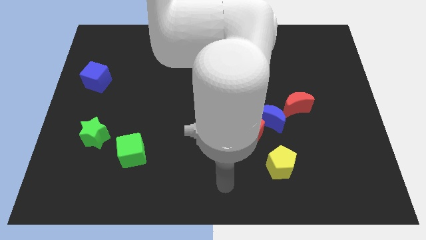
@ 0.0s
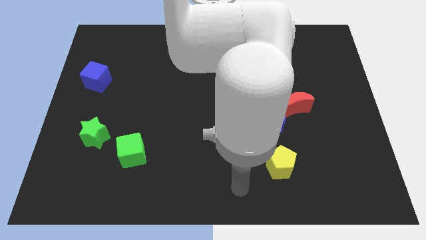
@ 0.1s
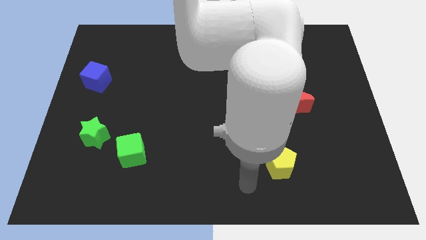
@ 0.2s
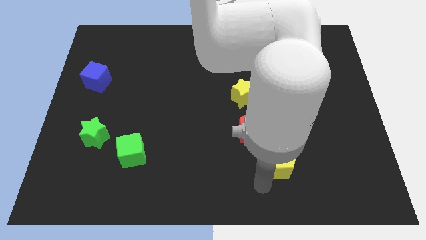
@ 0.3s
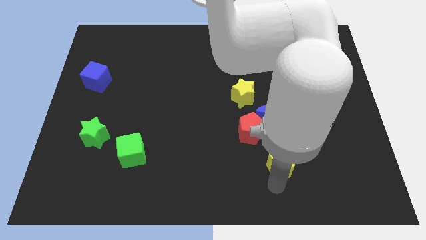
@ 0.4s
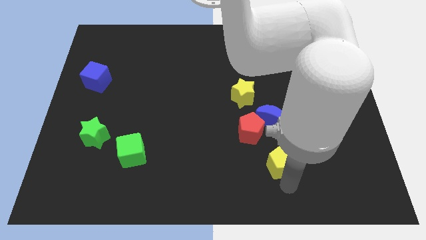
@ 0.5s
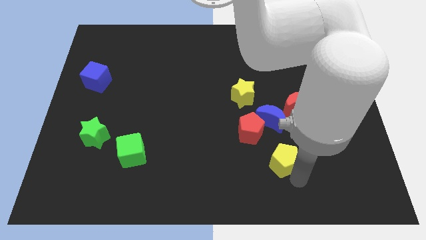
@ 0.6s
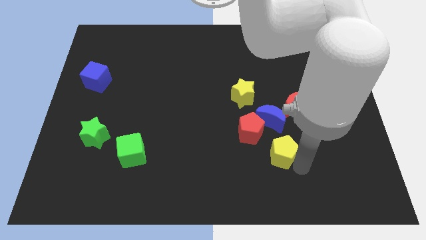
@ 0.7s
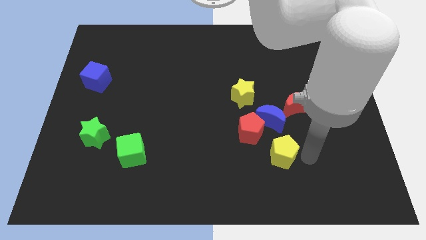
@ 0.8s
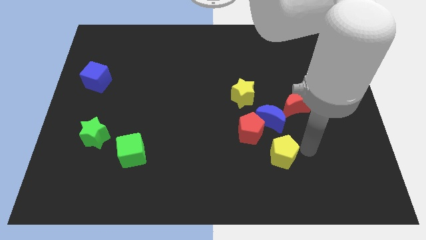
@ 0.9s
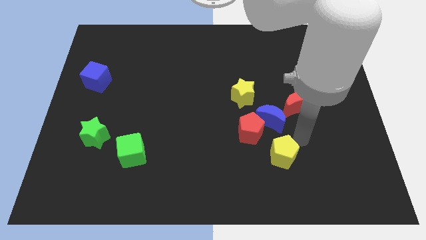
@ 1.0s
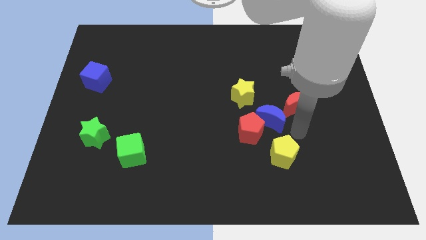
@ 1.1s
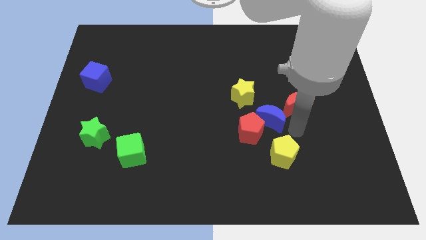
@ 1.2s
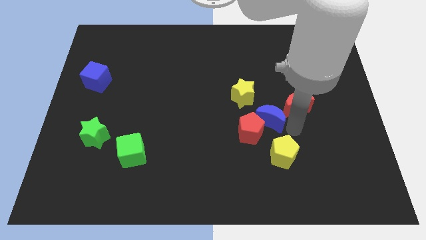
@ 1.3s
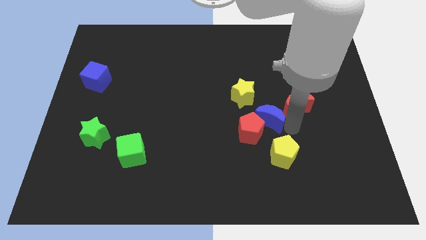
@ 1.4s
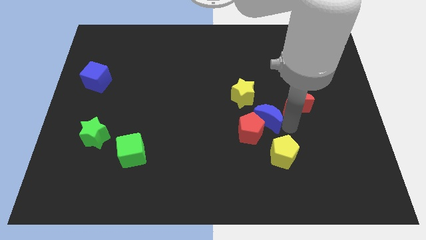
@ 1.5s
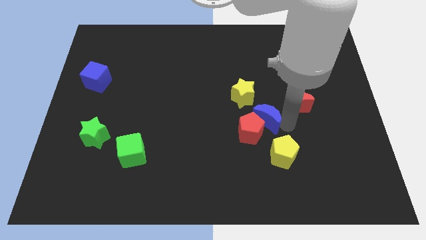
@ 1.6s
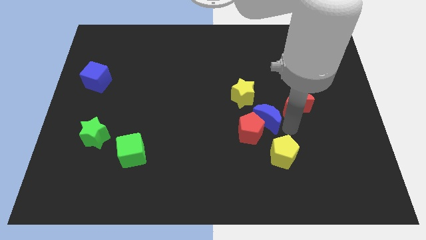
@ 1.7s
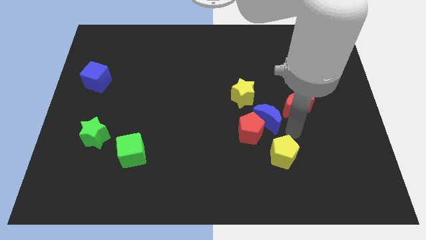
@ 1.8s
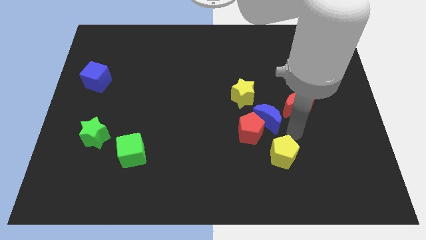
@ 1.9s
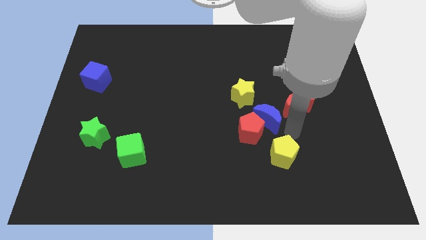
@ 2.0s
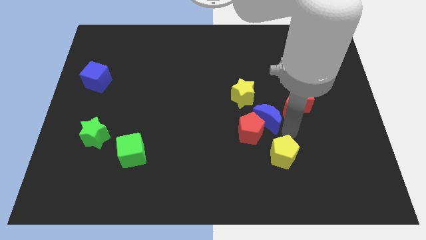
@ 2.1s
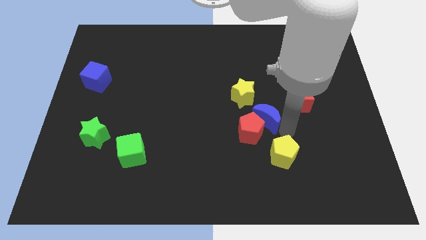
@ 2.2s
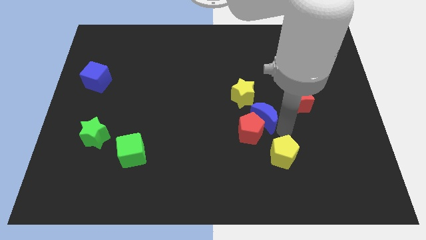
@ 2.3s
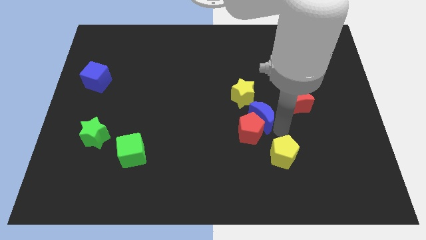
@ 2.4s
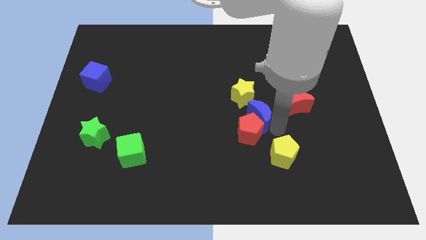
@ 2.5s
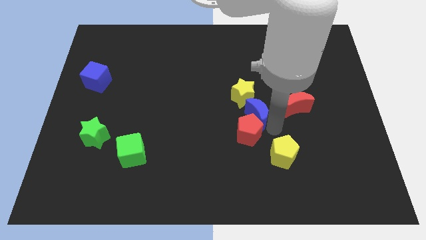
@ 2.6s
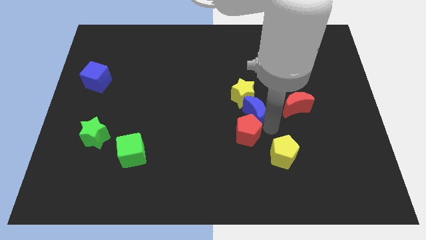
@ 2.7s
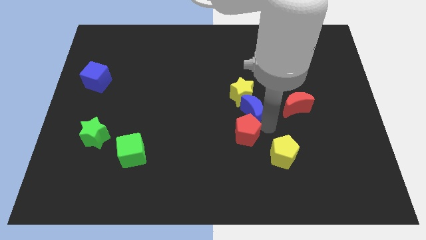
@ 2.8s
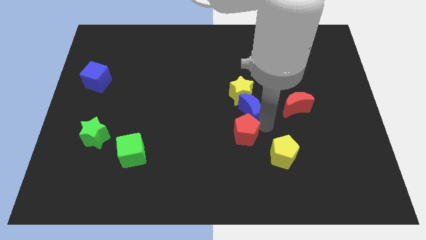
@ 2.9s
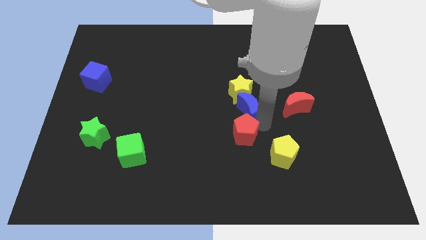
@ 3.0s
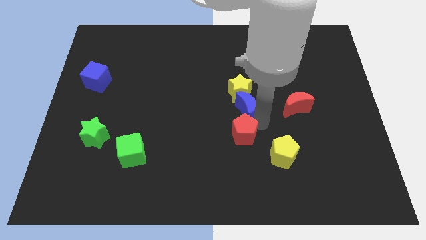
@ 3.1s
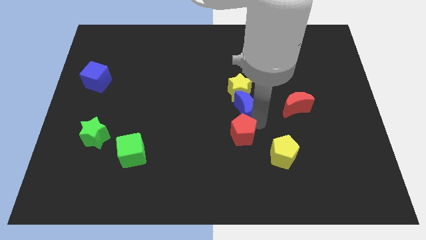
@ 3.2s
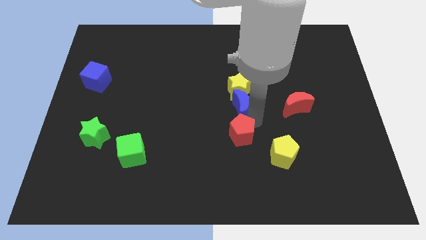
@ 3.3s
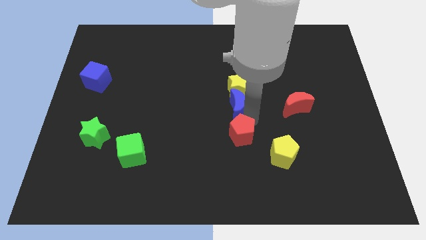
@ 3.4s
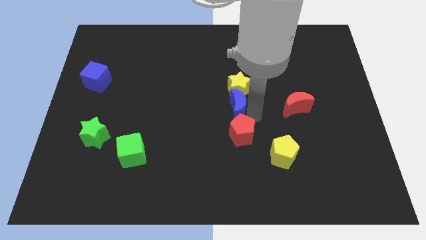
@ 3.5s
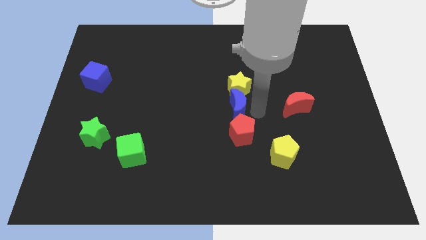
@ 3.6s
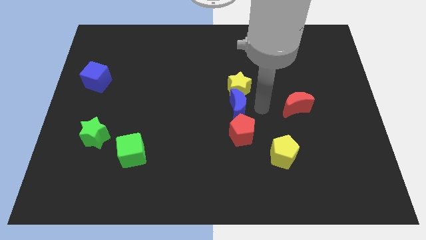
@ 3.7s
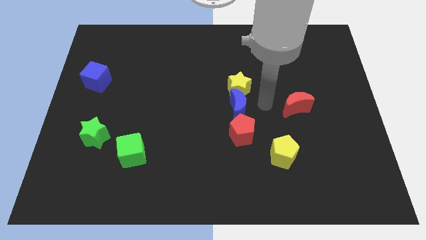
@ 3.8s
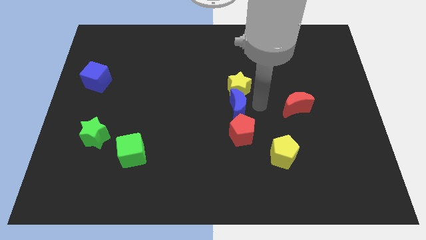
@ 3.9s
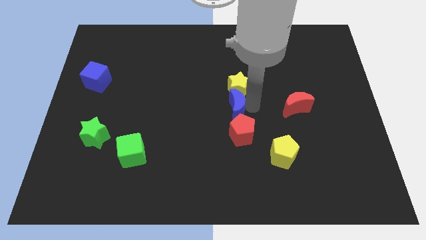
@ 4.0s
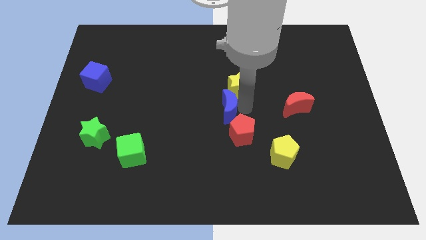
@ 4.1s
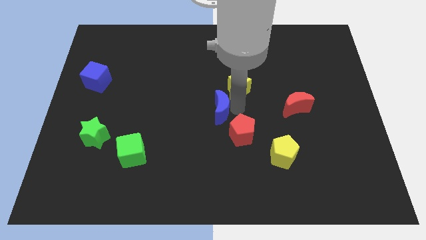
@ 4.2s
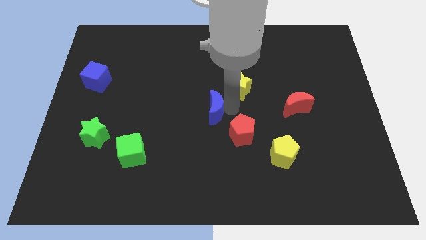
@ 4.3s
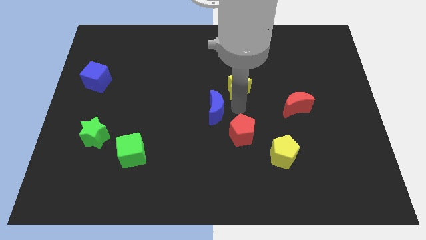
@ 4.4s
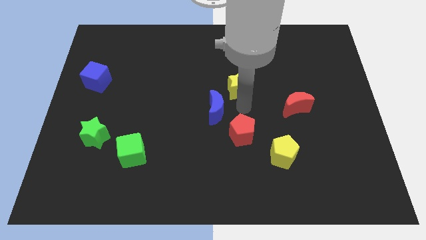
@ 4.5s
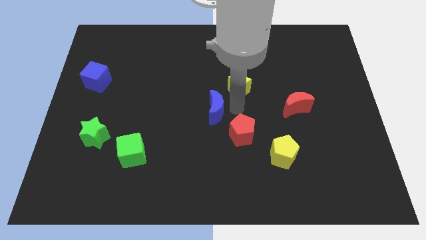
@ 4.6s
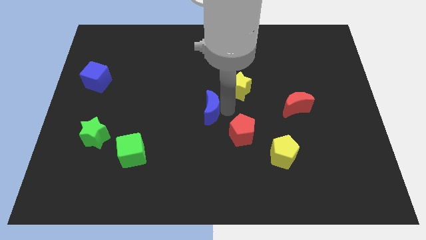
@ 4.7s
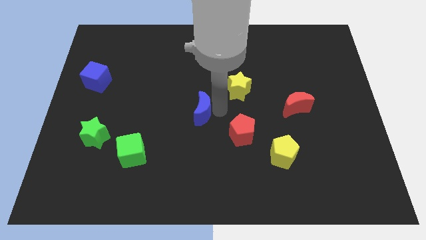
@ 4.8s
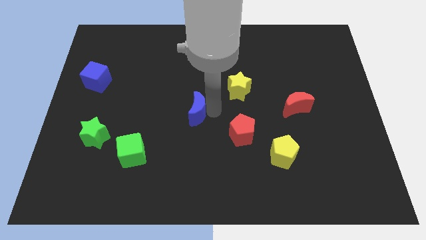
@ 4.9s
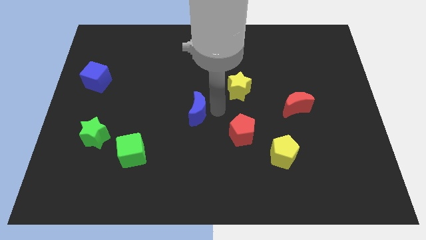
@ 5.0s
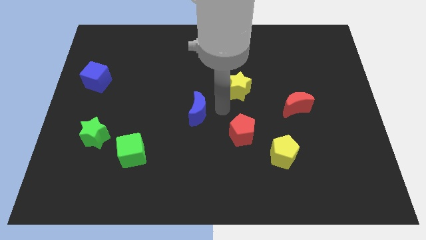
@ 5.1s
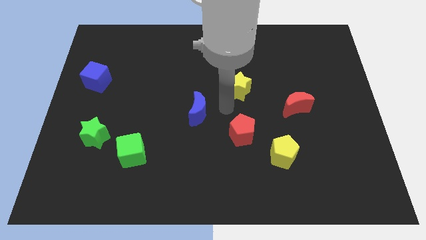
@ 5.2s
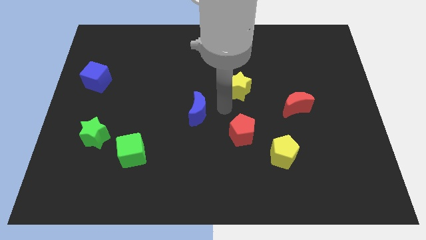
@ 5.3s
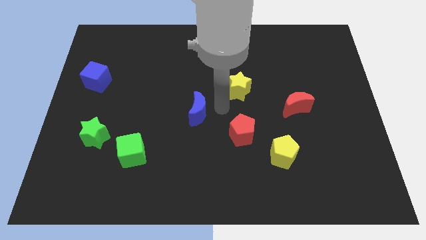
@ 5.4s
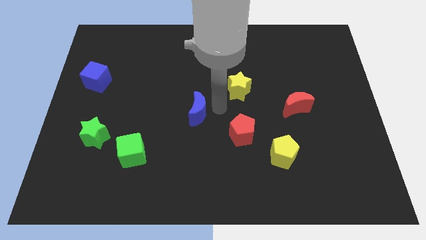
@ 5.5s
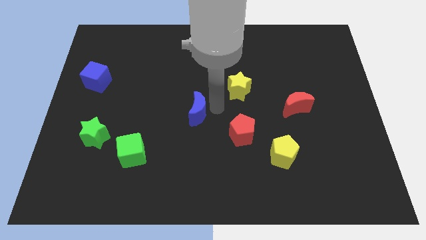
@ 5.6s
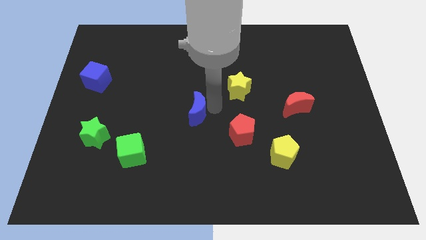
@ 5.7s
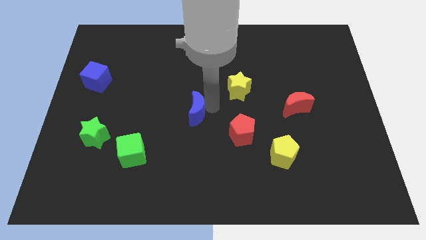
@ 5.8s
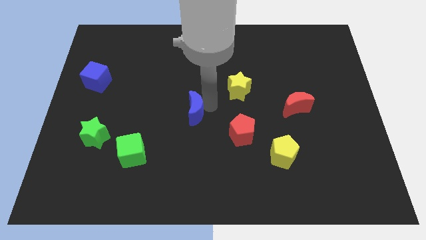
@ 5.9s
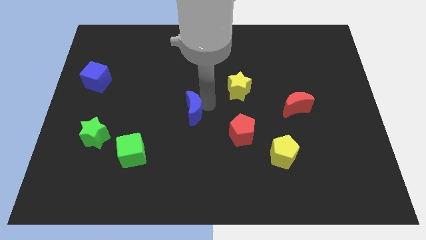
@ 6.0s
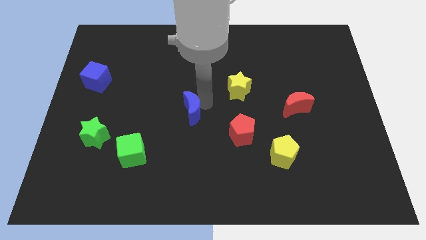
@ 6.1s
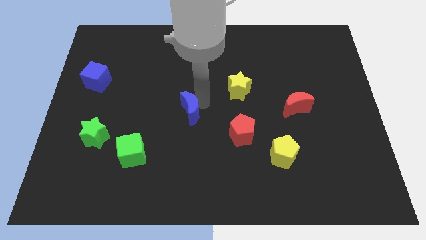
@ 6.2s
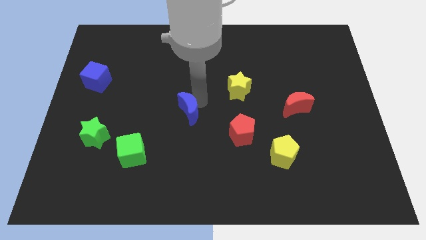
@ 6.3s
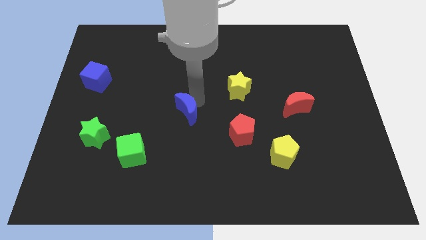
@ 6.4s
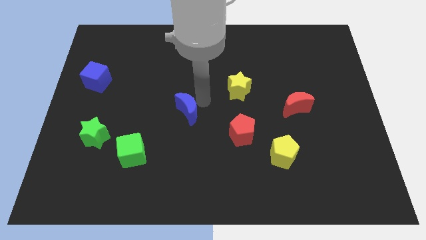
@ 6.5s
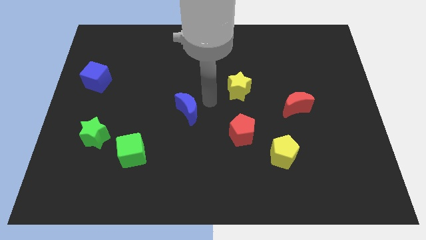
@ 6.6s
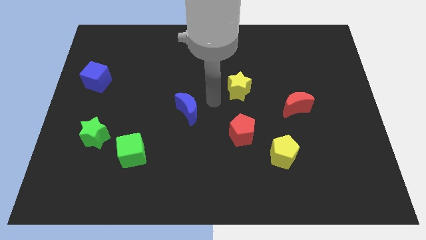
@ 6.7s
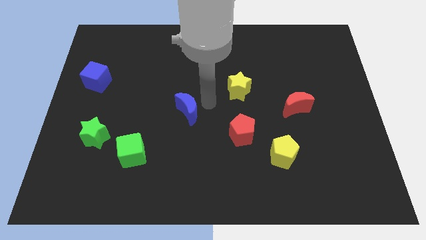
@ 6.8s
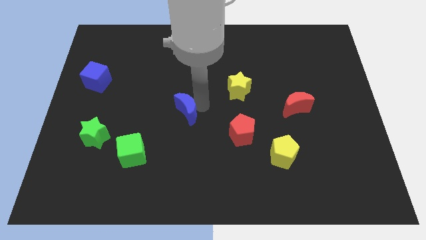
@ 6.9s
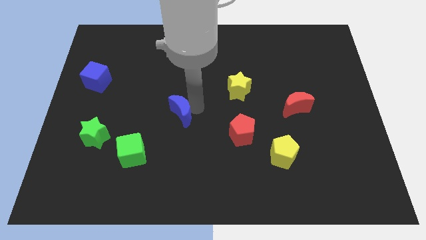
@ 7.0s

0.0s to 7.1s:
push the blue moon to the left

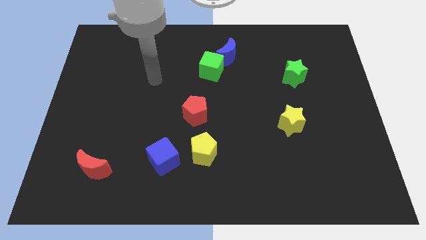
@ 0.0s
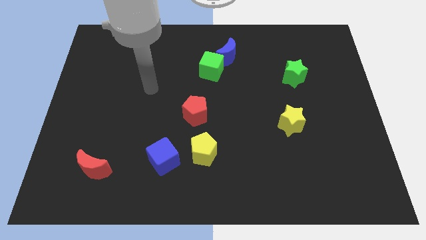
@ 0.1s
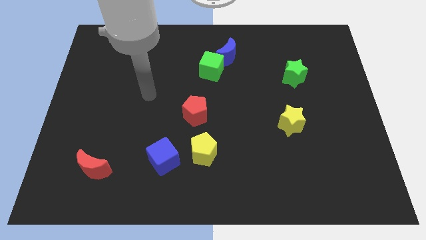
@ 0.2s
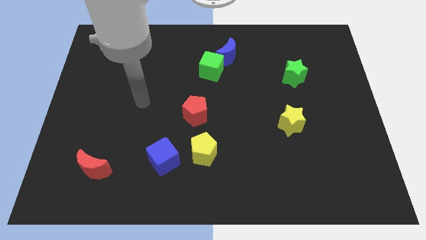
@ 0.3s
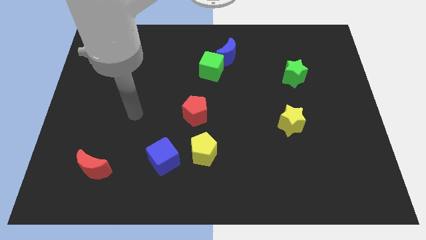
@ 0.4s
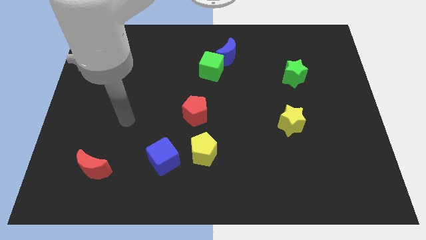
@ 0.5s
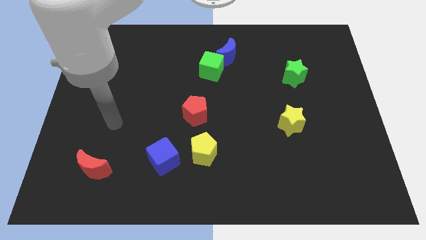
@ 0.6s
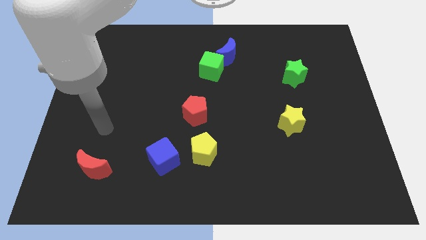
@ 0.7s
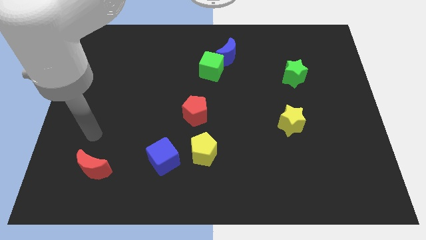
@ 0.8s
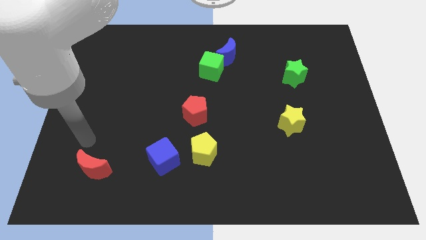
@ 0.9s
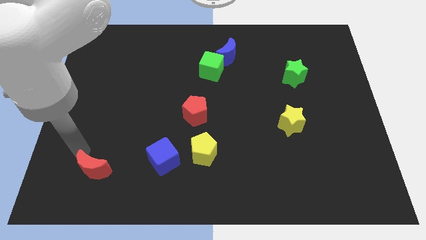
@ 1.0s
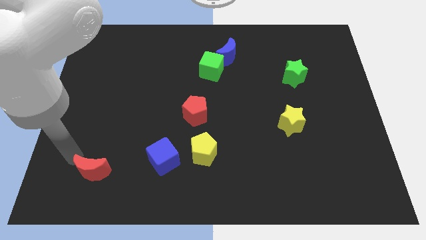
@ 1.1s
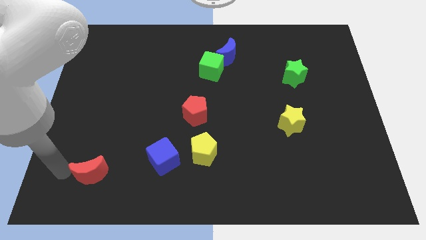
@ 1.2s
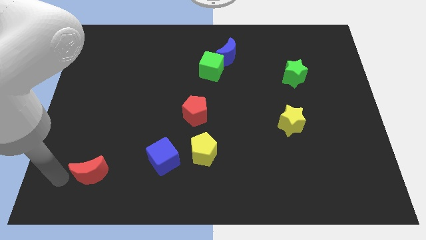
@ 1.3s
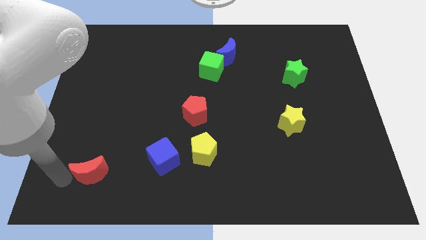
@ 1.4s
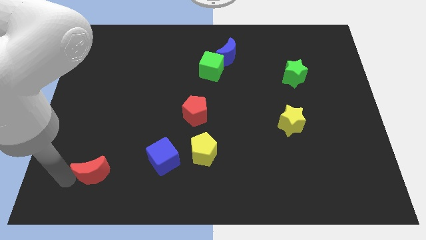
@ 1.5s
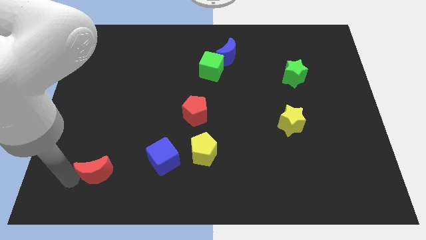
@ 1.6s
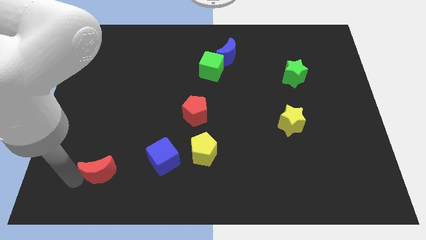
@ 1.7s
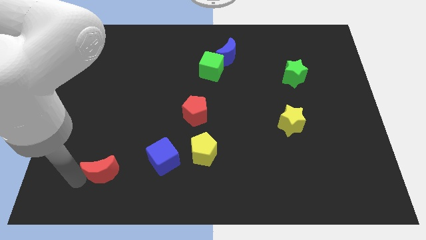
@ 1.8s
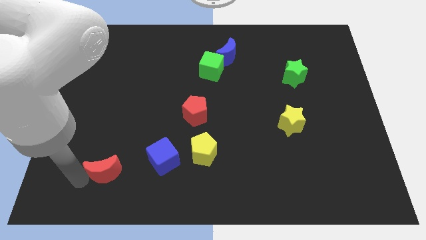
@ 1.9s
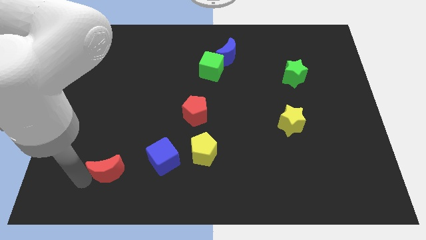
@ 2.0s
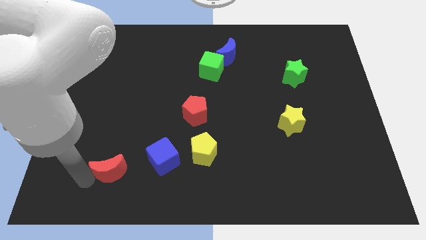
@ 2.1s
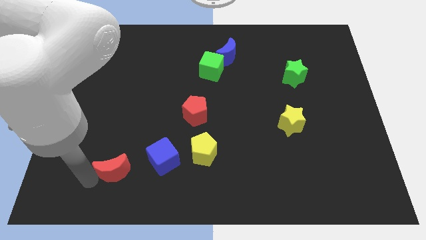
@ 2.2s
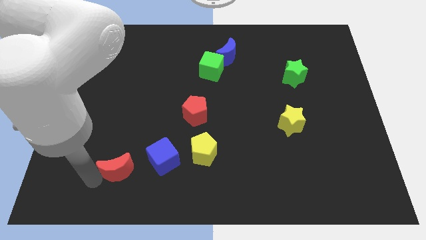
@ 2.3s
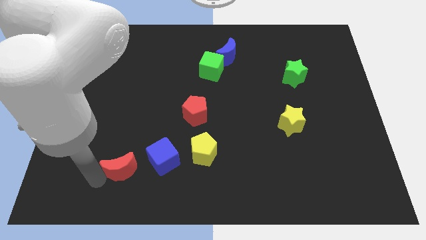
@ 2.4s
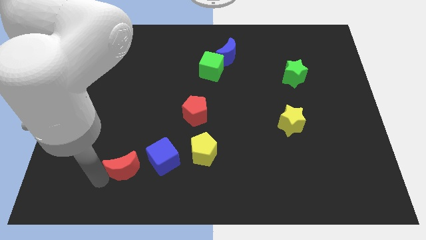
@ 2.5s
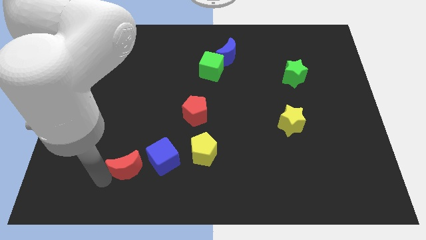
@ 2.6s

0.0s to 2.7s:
move the red moon right slightly
